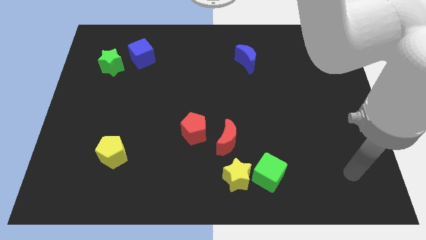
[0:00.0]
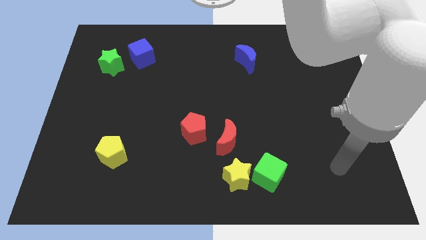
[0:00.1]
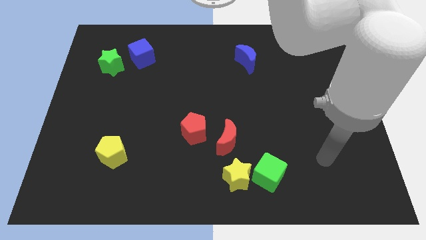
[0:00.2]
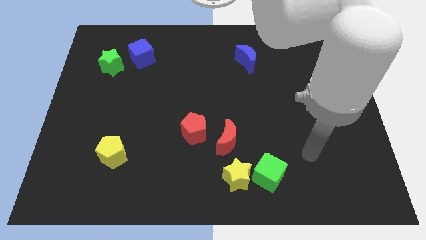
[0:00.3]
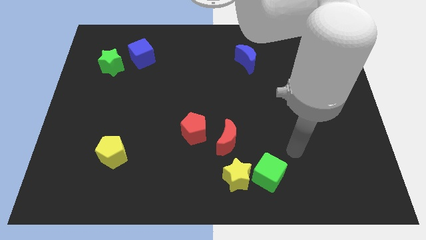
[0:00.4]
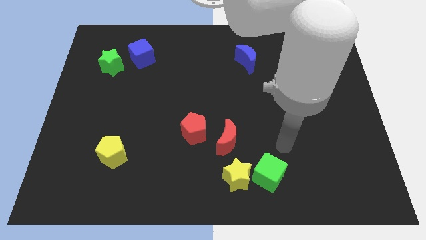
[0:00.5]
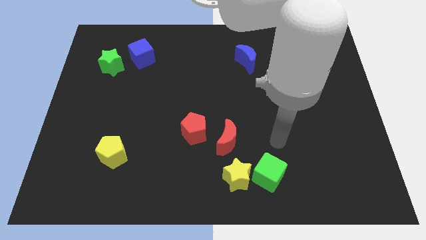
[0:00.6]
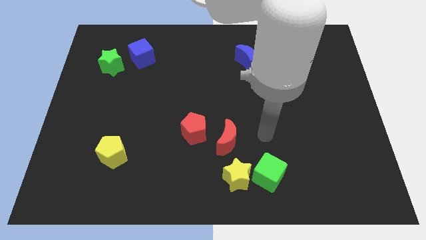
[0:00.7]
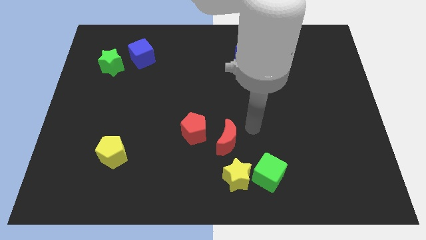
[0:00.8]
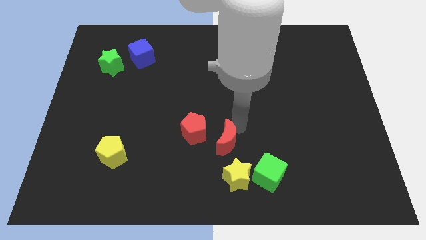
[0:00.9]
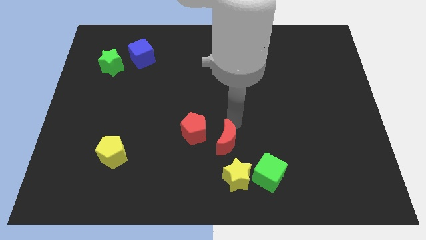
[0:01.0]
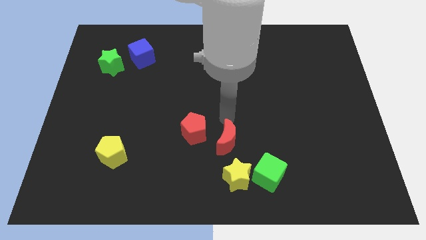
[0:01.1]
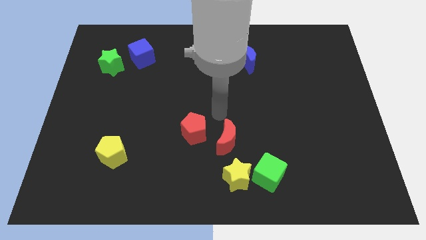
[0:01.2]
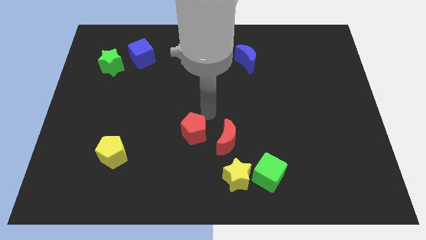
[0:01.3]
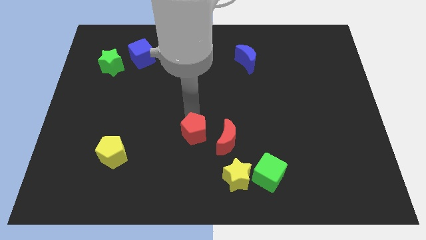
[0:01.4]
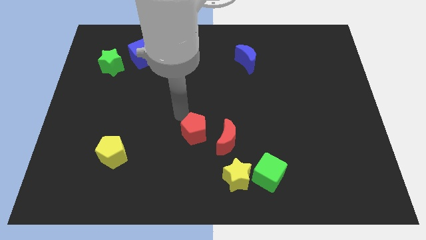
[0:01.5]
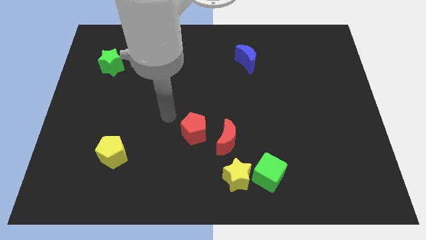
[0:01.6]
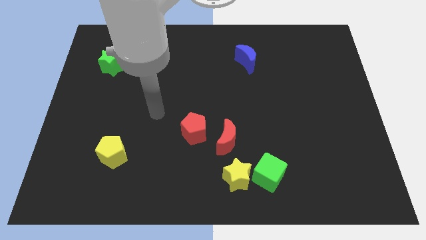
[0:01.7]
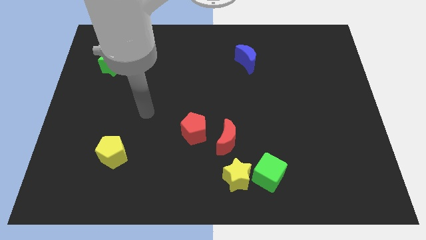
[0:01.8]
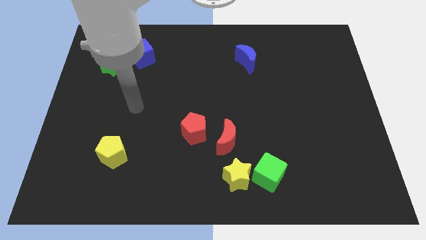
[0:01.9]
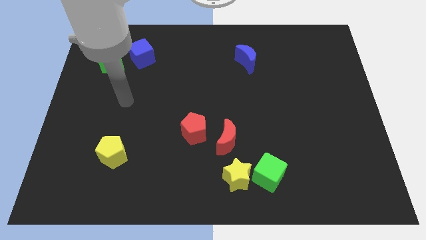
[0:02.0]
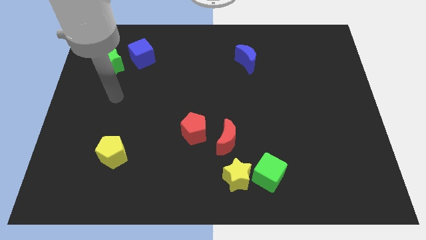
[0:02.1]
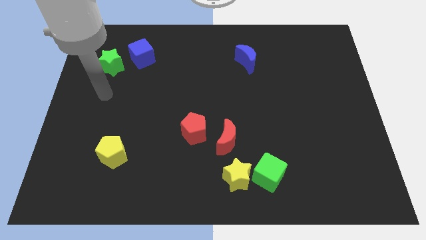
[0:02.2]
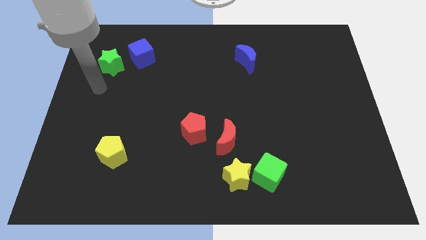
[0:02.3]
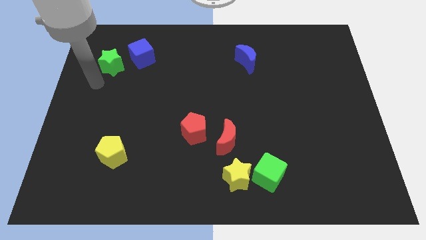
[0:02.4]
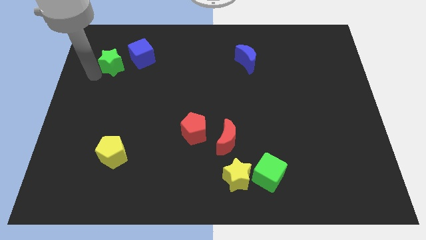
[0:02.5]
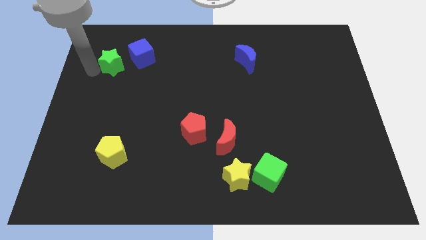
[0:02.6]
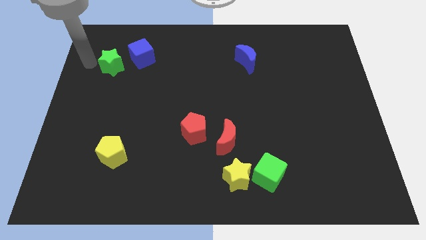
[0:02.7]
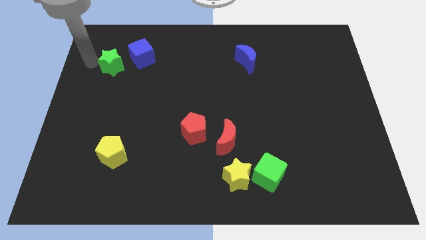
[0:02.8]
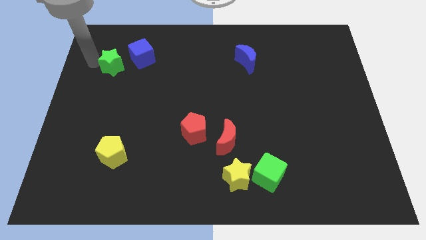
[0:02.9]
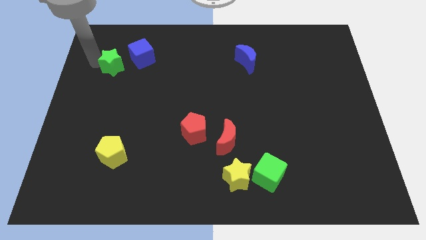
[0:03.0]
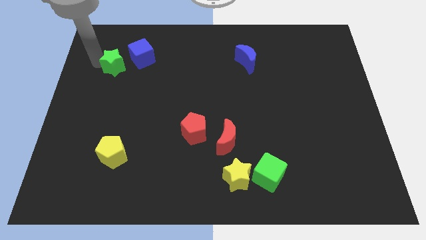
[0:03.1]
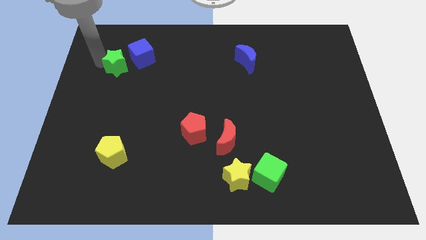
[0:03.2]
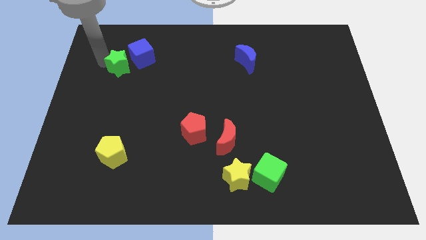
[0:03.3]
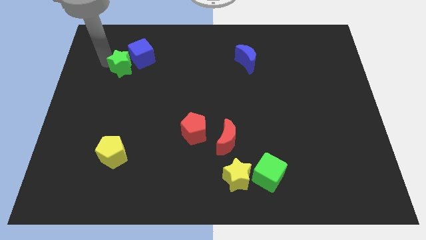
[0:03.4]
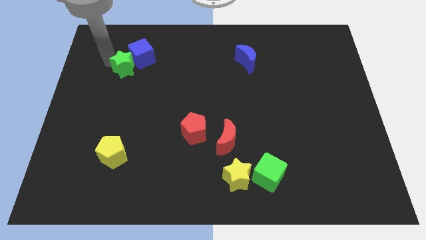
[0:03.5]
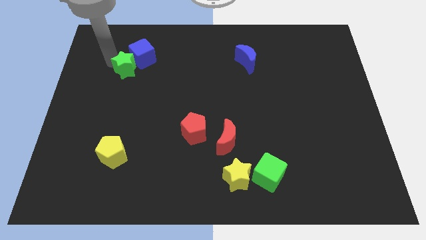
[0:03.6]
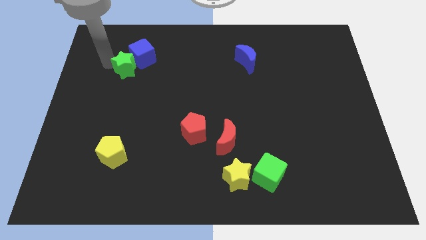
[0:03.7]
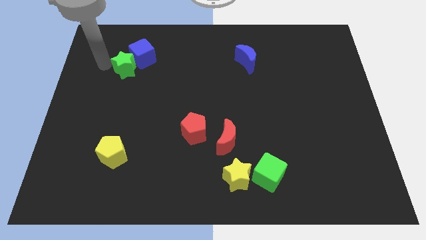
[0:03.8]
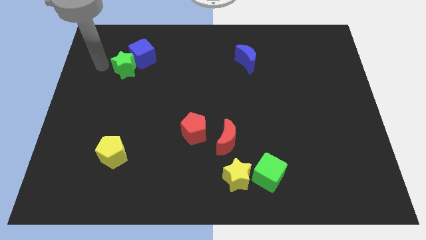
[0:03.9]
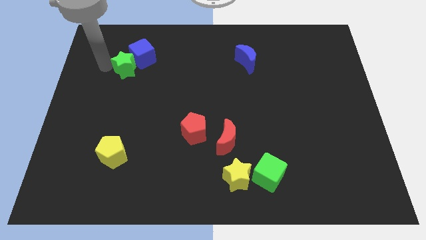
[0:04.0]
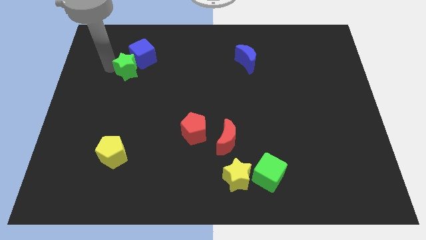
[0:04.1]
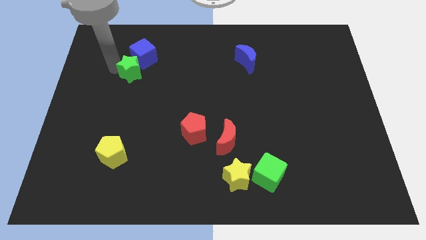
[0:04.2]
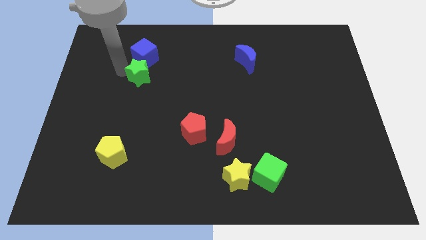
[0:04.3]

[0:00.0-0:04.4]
slightly move the green star to the right

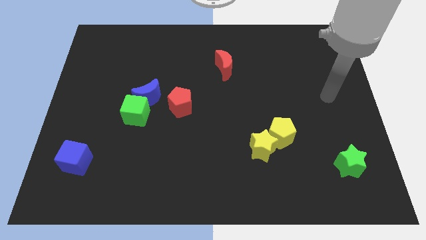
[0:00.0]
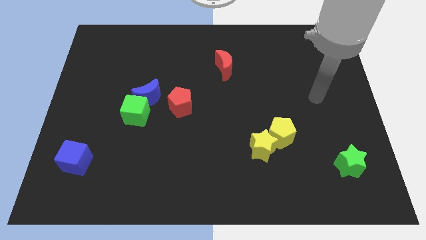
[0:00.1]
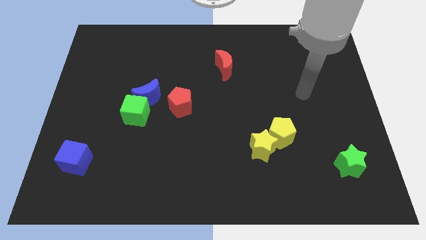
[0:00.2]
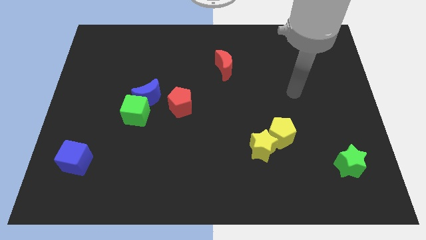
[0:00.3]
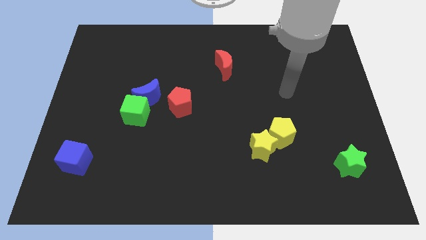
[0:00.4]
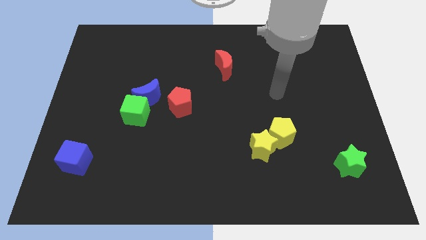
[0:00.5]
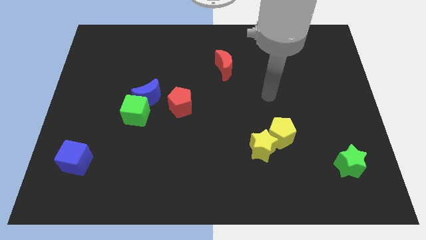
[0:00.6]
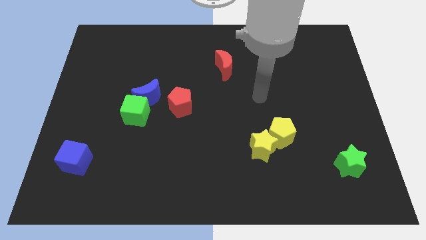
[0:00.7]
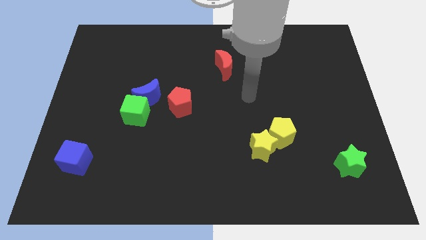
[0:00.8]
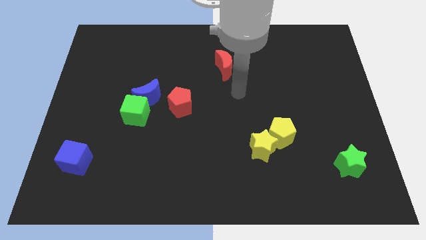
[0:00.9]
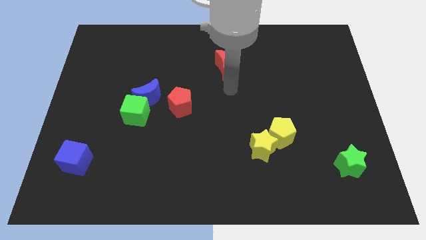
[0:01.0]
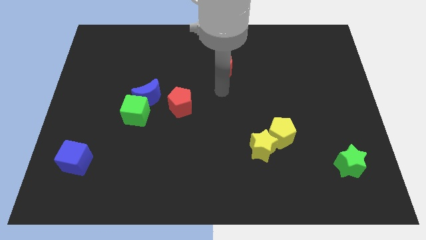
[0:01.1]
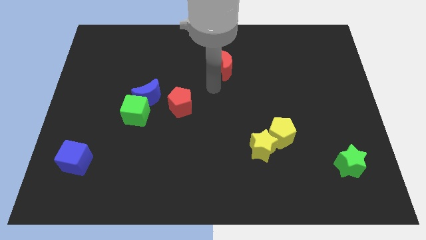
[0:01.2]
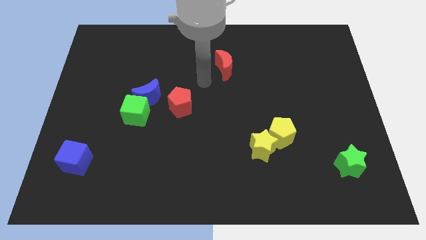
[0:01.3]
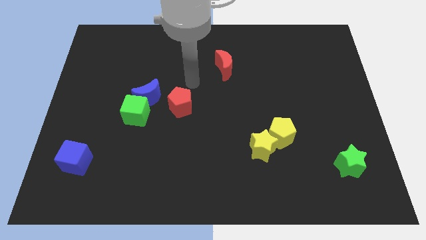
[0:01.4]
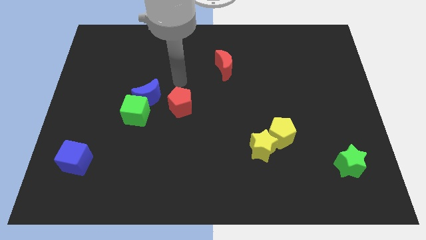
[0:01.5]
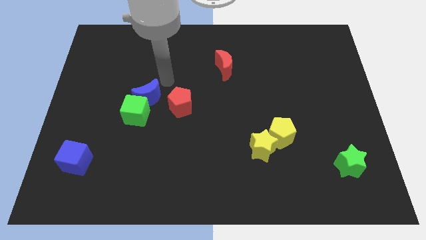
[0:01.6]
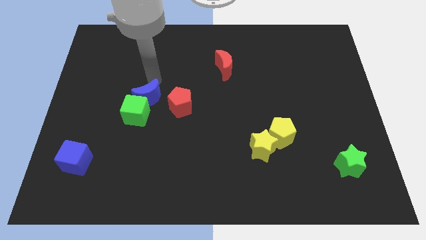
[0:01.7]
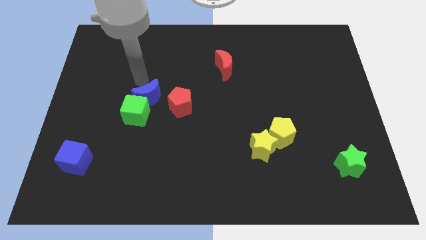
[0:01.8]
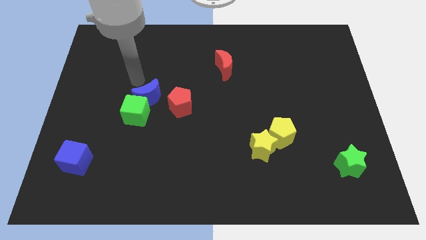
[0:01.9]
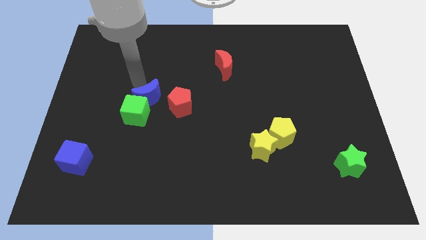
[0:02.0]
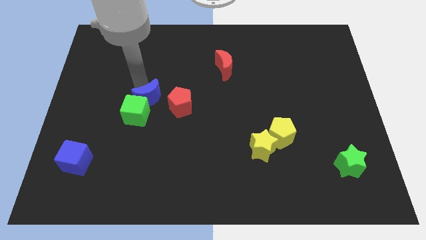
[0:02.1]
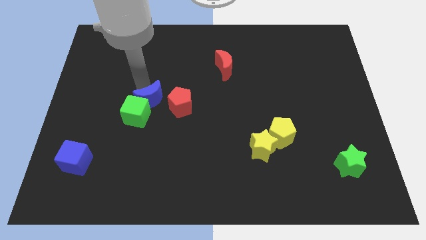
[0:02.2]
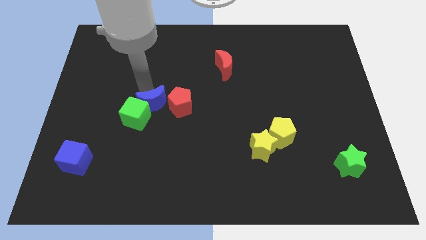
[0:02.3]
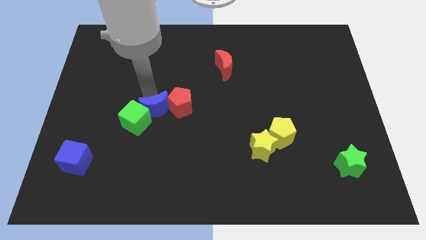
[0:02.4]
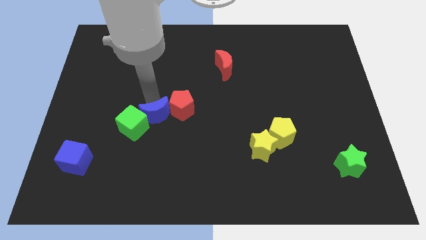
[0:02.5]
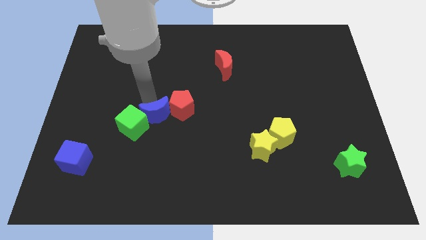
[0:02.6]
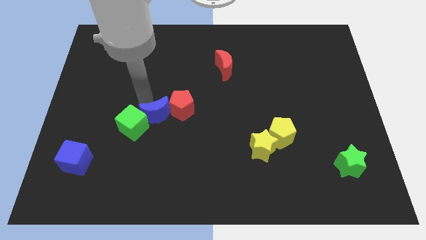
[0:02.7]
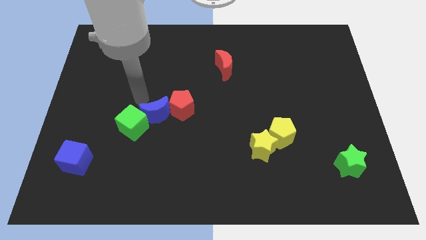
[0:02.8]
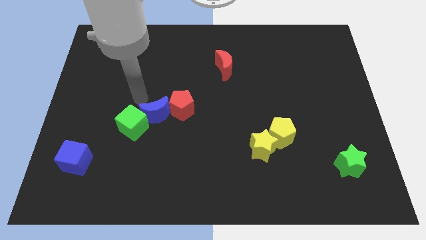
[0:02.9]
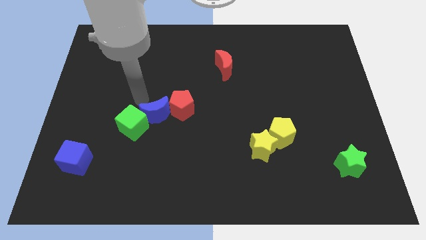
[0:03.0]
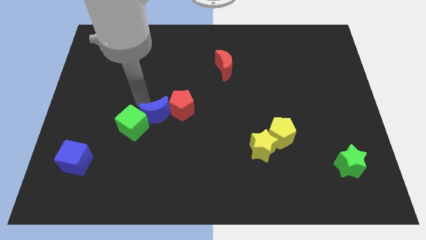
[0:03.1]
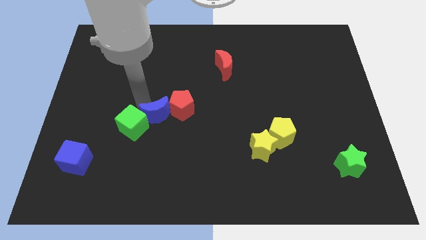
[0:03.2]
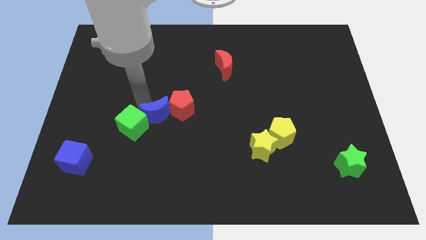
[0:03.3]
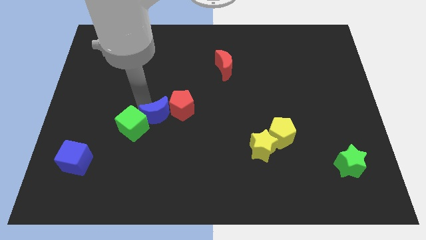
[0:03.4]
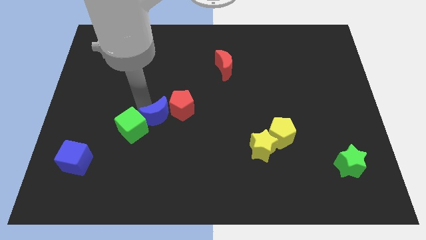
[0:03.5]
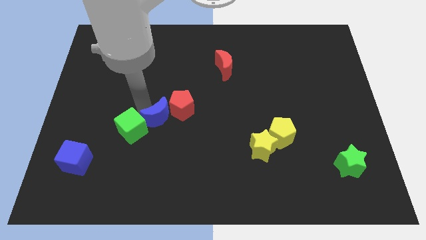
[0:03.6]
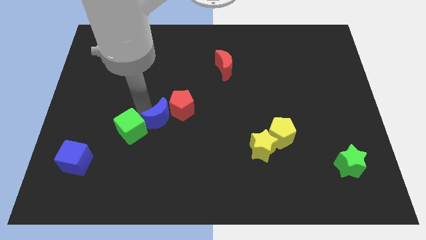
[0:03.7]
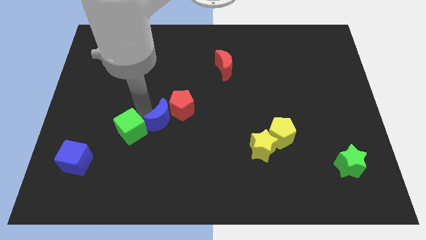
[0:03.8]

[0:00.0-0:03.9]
slide the blue moon downwards and to the right a little
